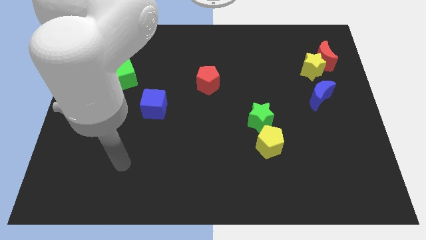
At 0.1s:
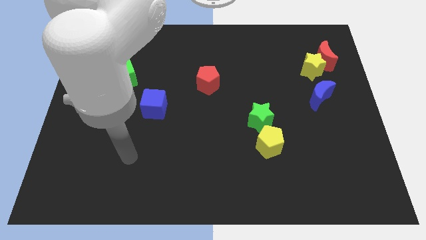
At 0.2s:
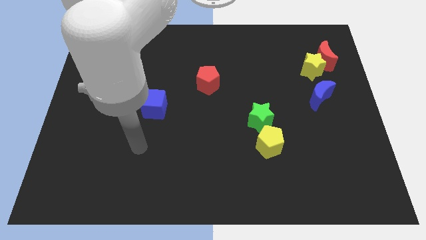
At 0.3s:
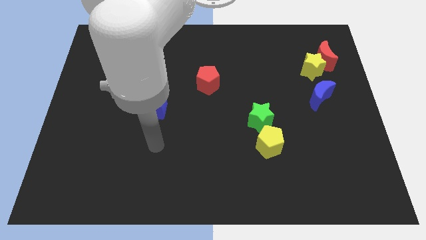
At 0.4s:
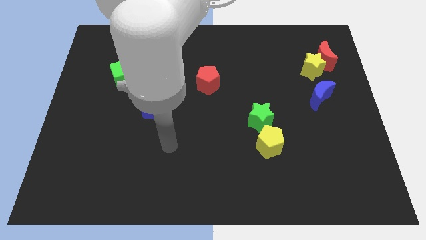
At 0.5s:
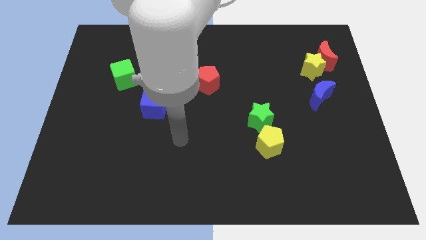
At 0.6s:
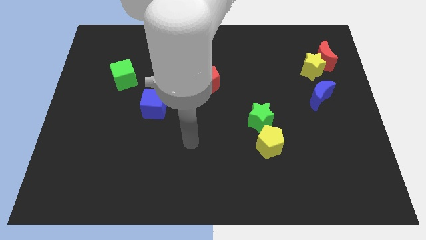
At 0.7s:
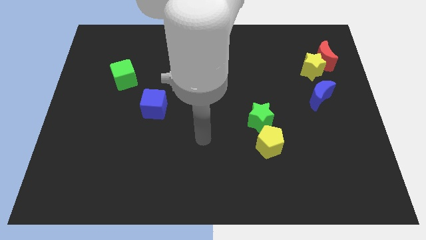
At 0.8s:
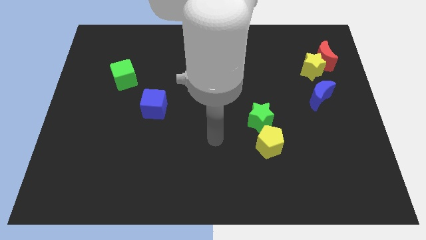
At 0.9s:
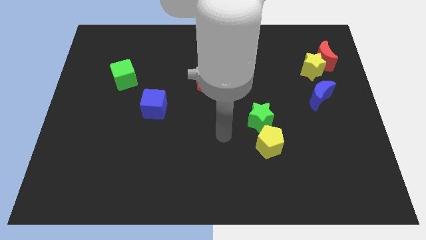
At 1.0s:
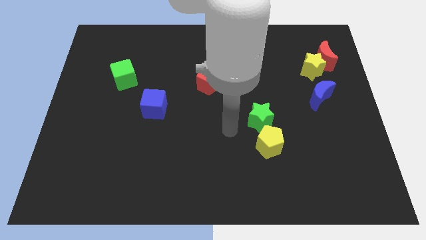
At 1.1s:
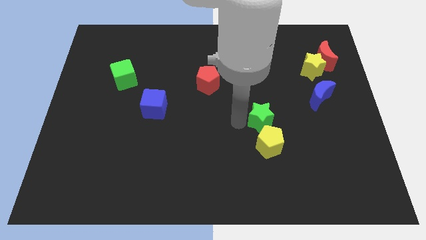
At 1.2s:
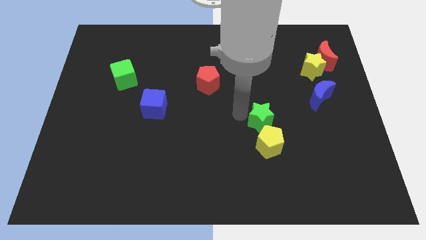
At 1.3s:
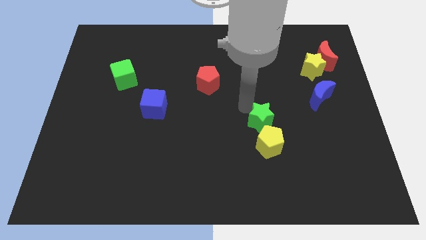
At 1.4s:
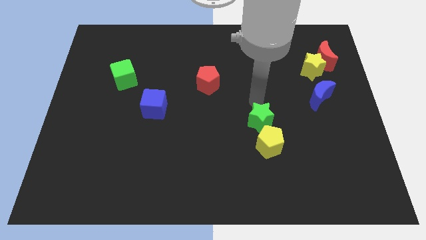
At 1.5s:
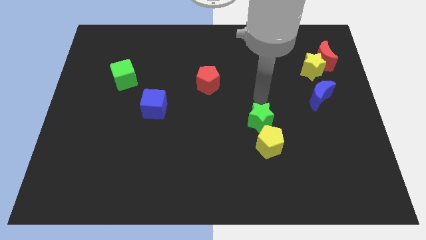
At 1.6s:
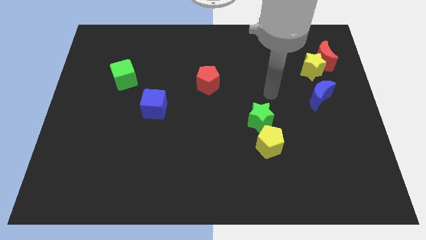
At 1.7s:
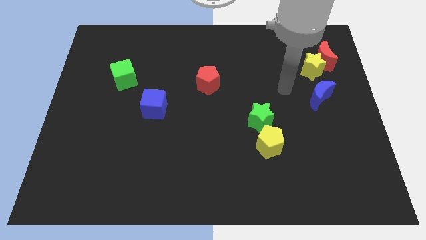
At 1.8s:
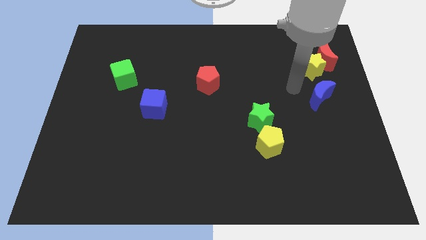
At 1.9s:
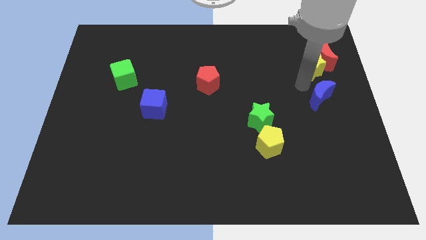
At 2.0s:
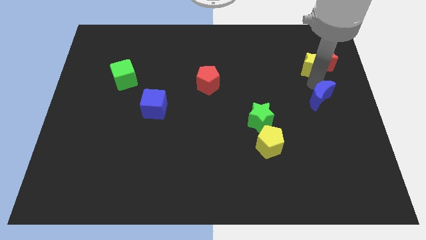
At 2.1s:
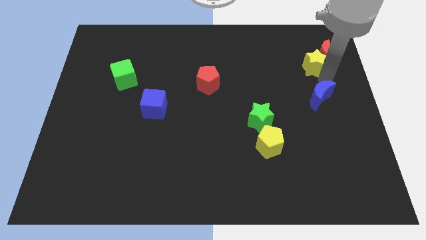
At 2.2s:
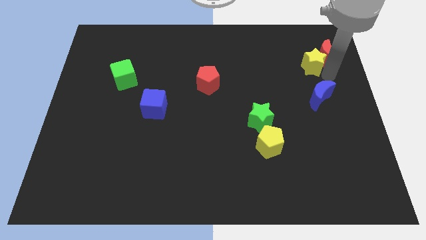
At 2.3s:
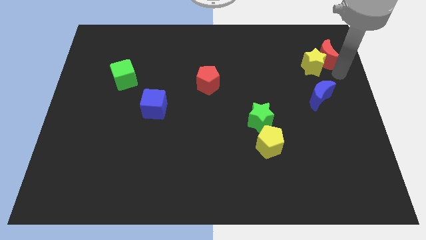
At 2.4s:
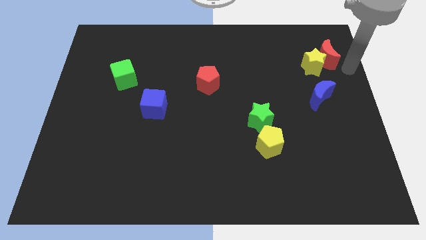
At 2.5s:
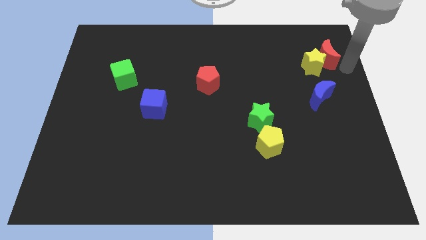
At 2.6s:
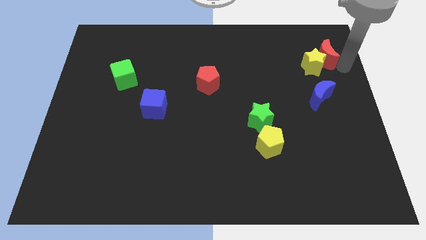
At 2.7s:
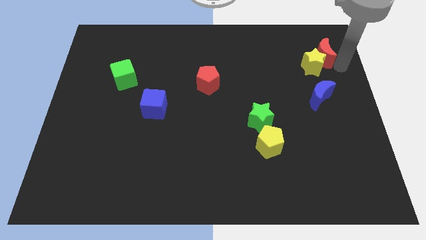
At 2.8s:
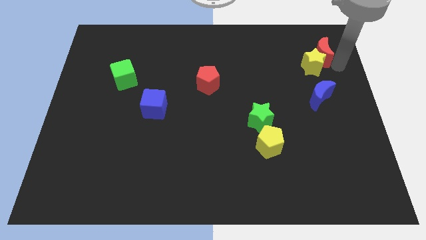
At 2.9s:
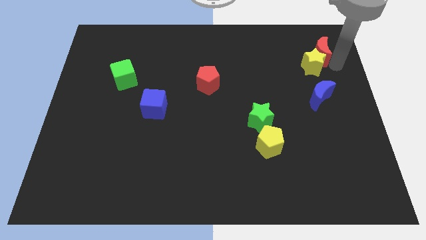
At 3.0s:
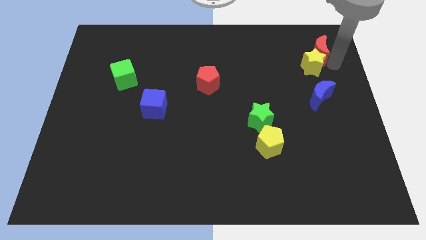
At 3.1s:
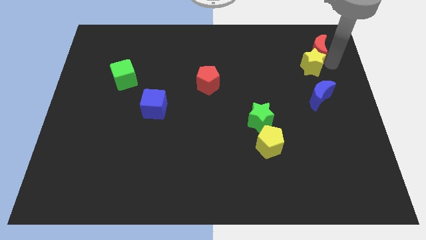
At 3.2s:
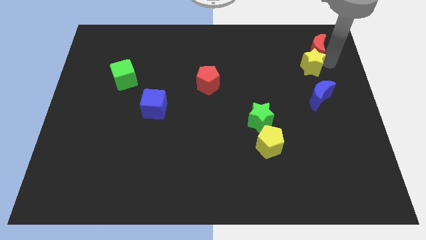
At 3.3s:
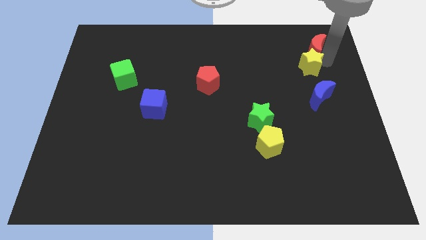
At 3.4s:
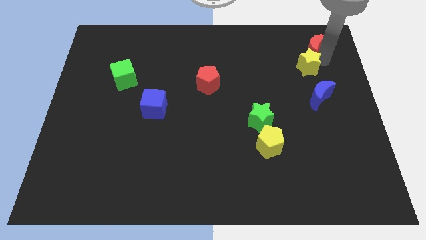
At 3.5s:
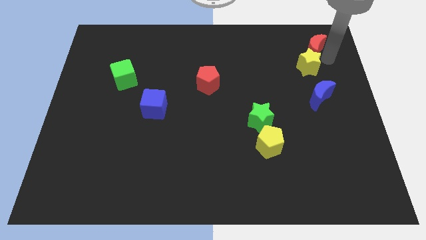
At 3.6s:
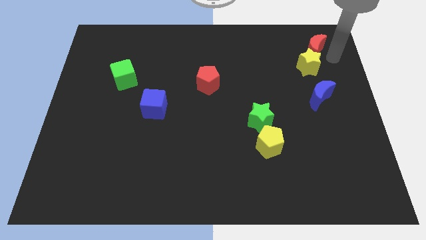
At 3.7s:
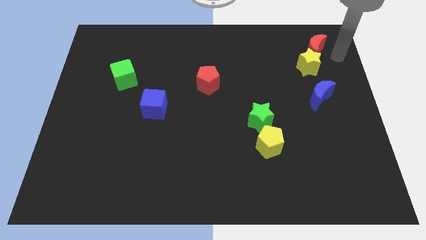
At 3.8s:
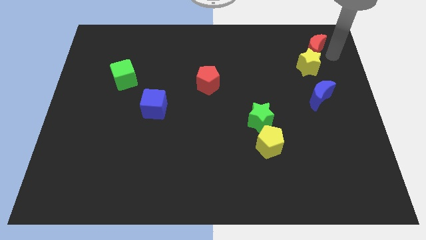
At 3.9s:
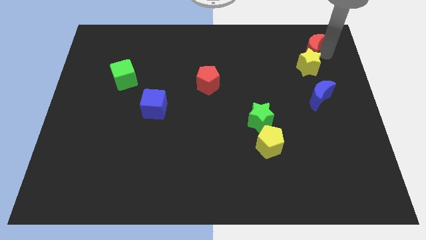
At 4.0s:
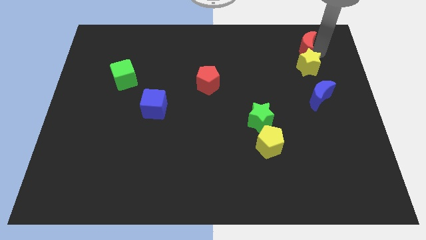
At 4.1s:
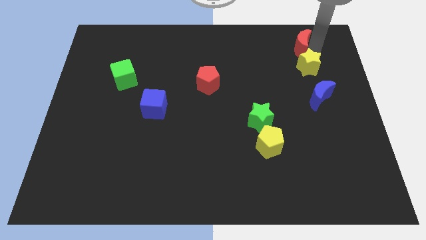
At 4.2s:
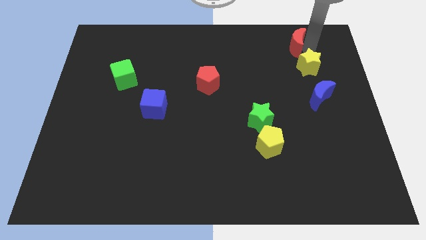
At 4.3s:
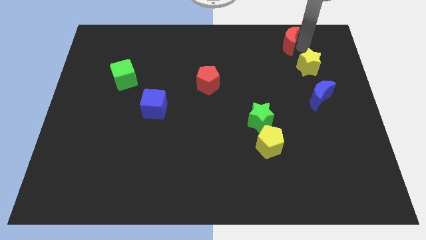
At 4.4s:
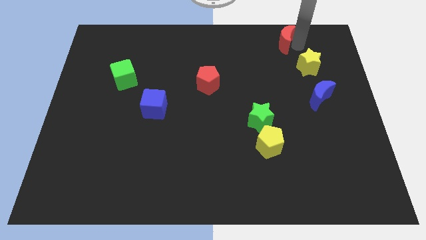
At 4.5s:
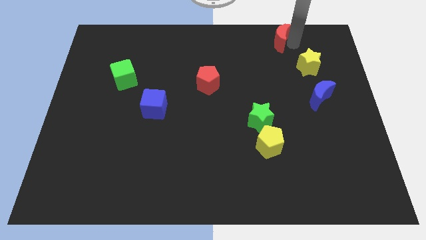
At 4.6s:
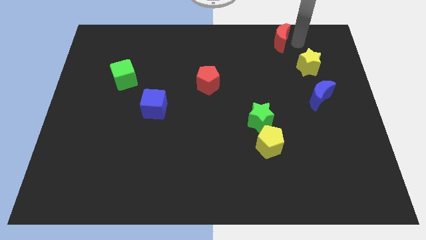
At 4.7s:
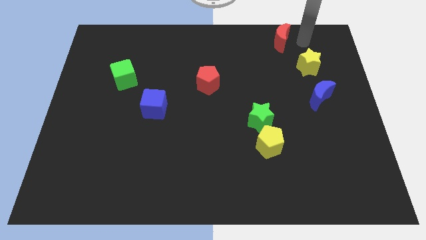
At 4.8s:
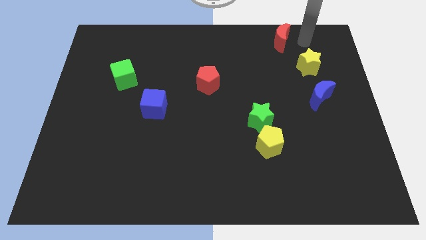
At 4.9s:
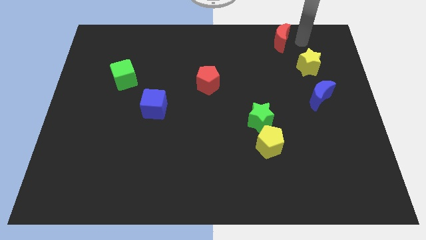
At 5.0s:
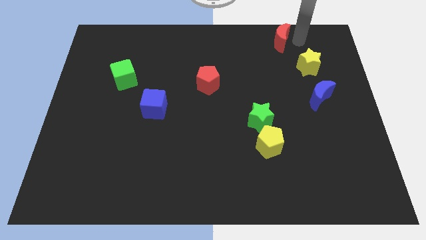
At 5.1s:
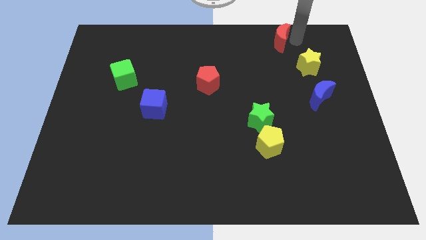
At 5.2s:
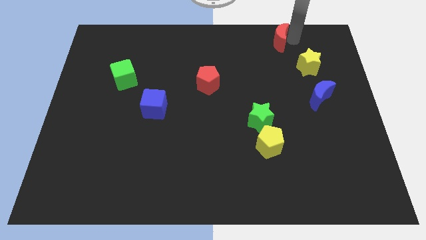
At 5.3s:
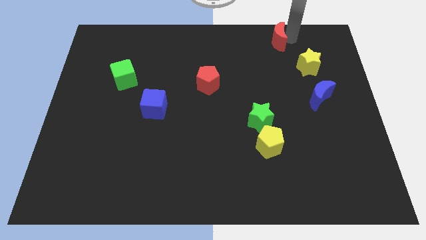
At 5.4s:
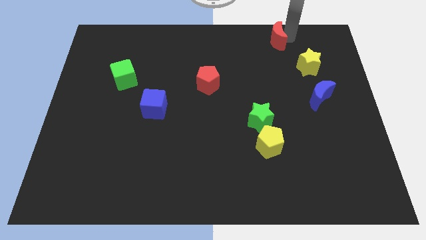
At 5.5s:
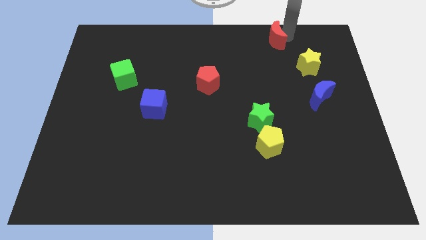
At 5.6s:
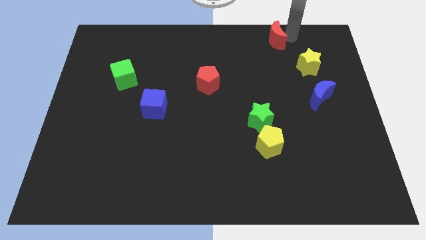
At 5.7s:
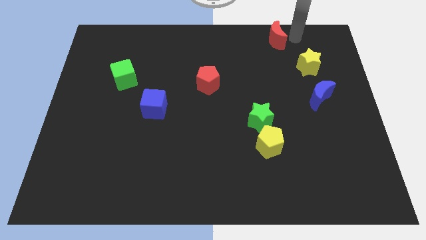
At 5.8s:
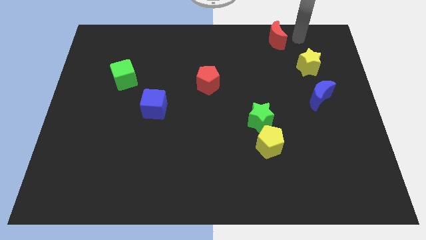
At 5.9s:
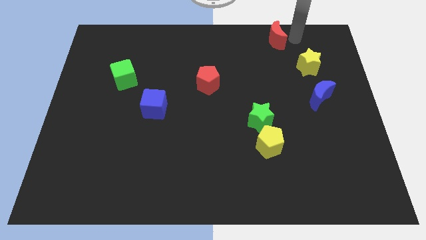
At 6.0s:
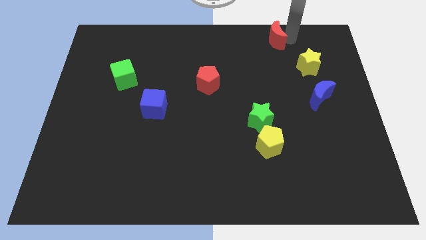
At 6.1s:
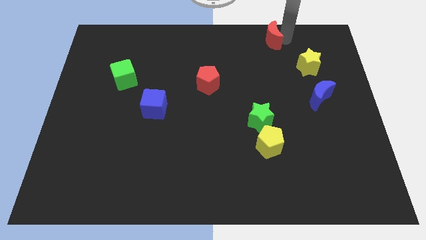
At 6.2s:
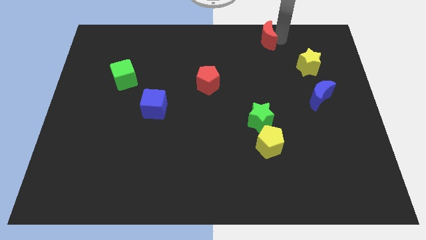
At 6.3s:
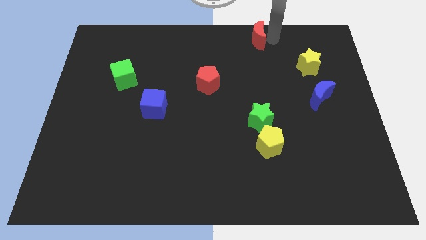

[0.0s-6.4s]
slide the red moon to the top side

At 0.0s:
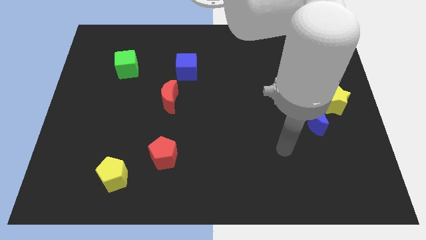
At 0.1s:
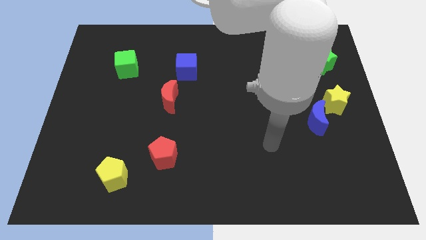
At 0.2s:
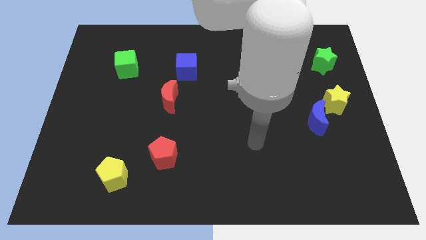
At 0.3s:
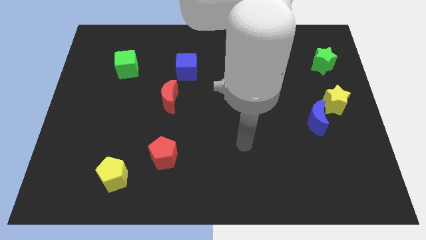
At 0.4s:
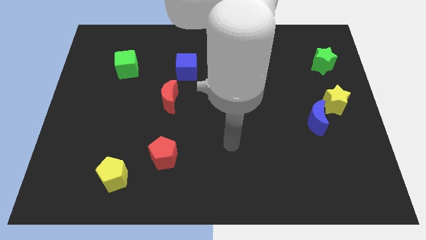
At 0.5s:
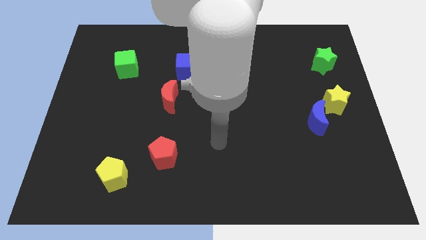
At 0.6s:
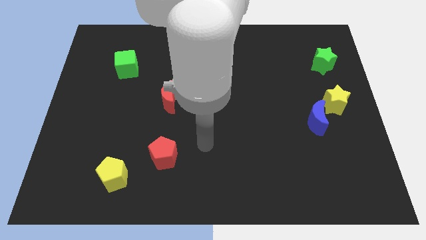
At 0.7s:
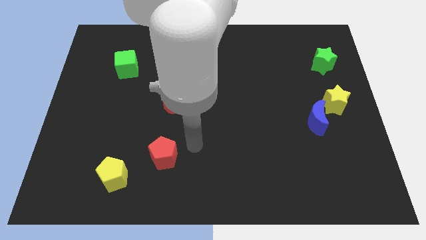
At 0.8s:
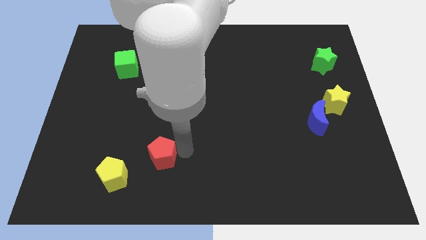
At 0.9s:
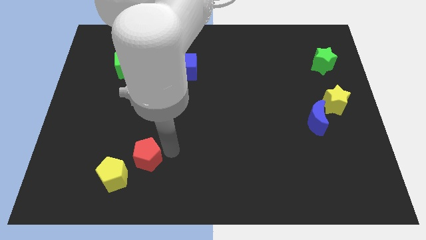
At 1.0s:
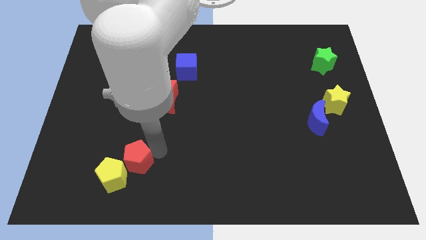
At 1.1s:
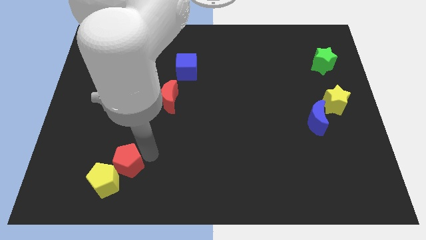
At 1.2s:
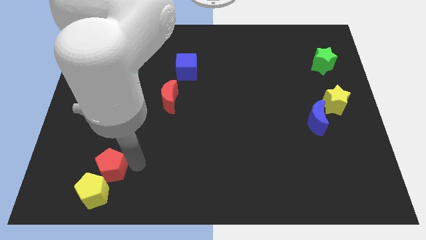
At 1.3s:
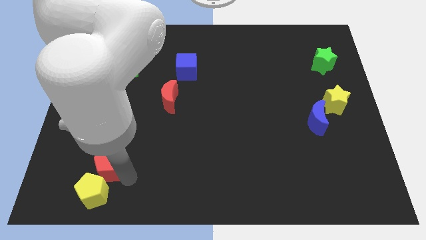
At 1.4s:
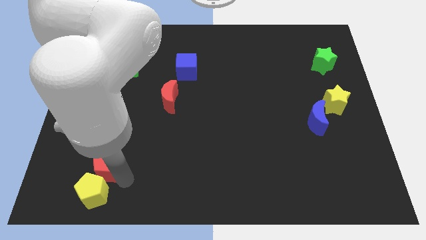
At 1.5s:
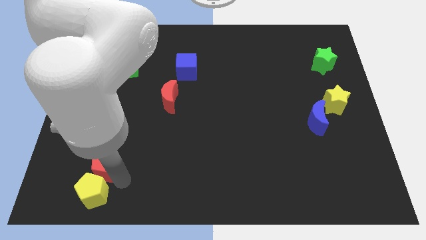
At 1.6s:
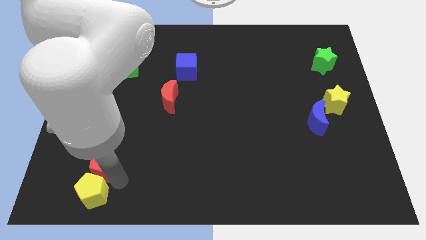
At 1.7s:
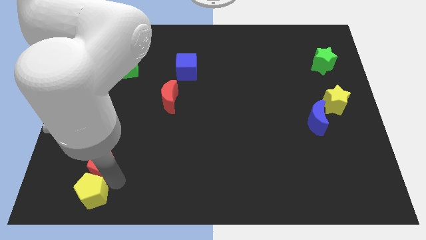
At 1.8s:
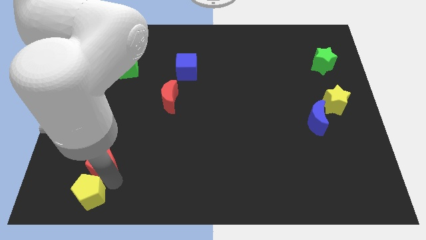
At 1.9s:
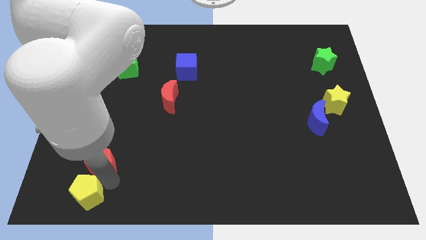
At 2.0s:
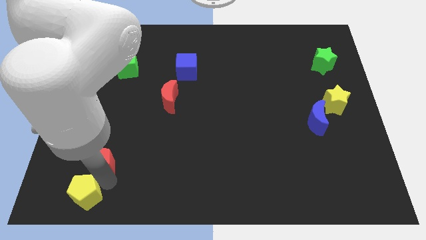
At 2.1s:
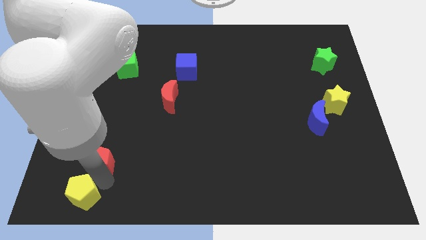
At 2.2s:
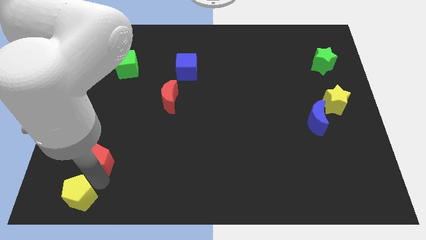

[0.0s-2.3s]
slide the yellow pentagon to the bottom left of the board
